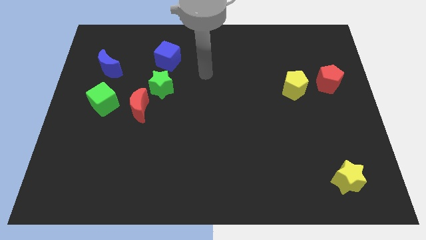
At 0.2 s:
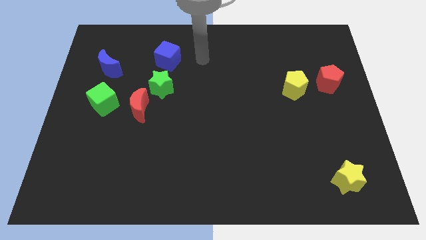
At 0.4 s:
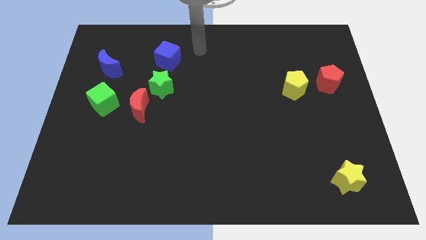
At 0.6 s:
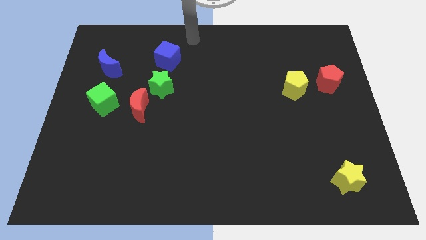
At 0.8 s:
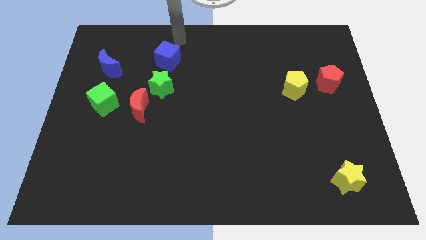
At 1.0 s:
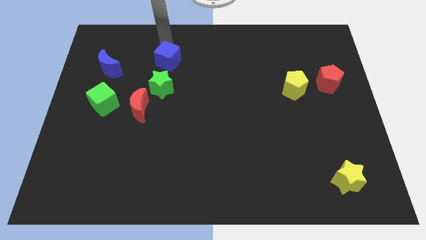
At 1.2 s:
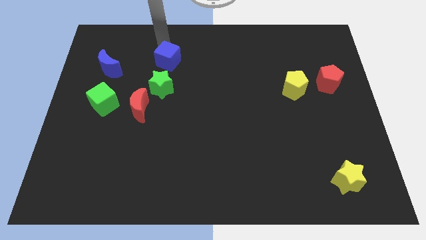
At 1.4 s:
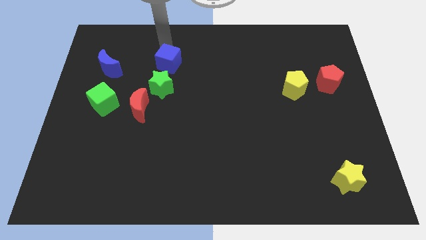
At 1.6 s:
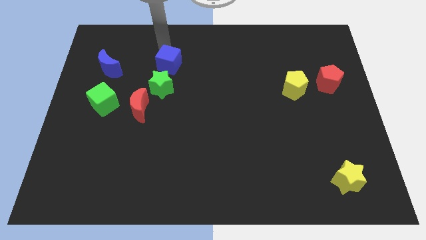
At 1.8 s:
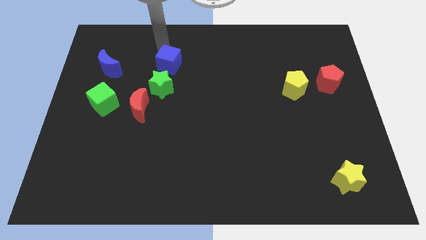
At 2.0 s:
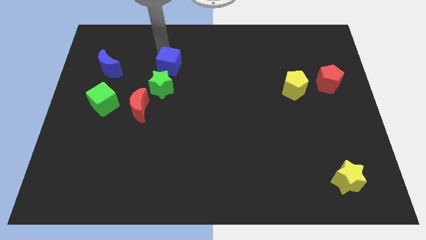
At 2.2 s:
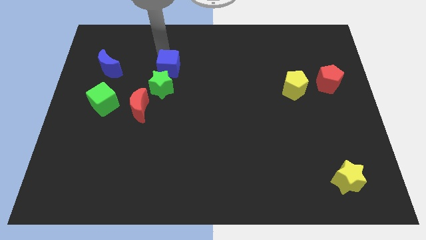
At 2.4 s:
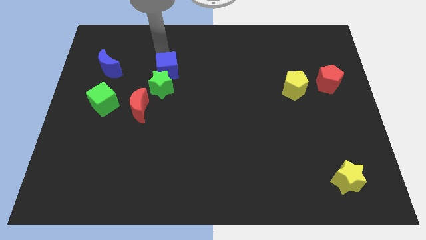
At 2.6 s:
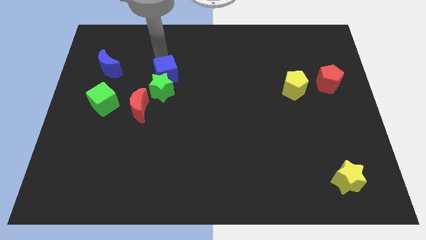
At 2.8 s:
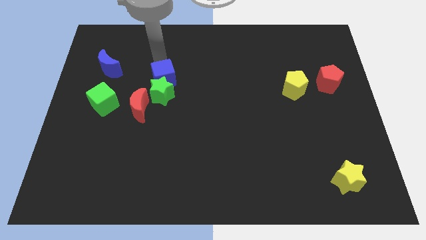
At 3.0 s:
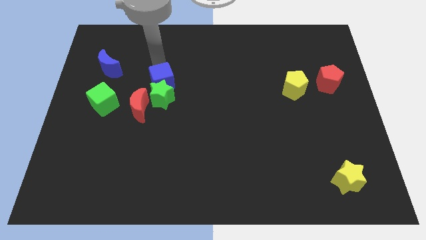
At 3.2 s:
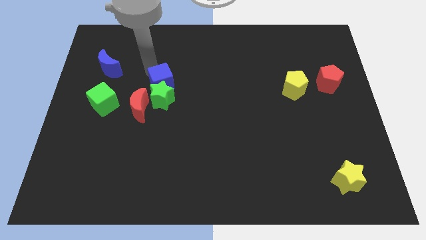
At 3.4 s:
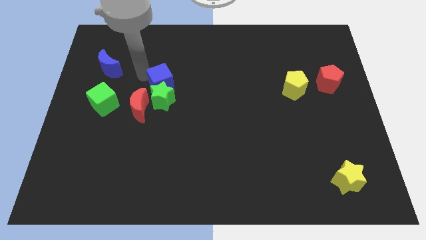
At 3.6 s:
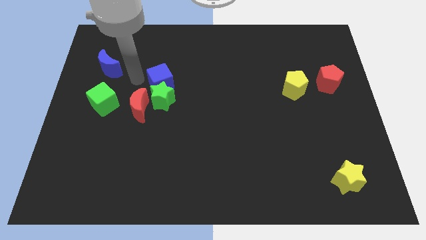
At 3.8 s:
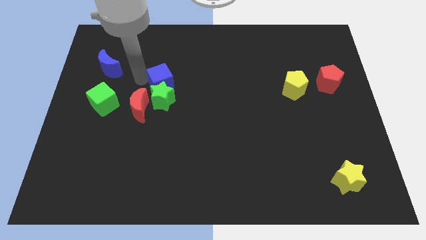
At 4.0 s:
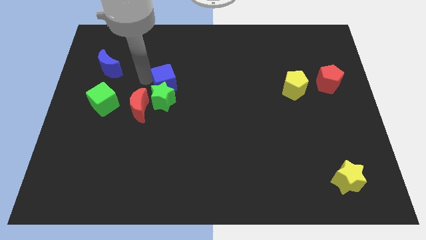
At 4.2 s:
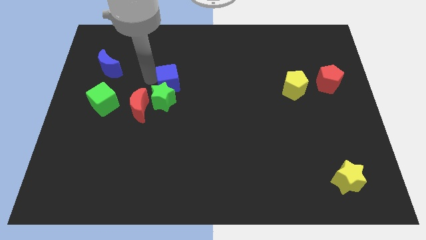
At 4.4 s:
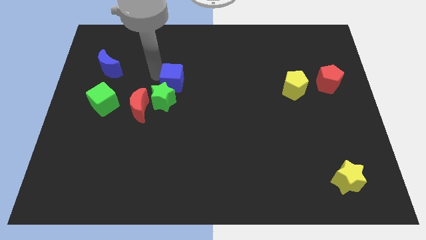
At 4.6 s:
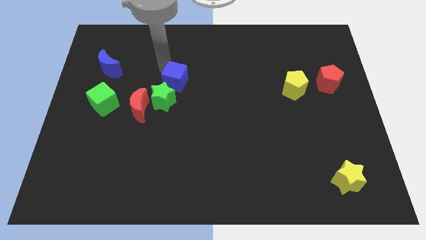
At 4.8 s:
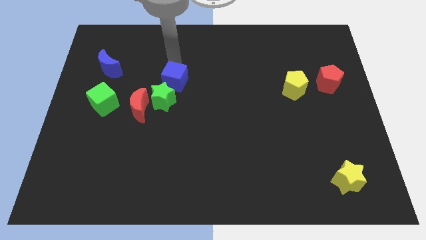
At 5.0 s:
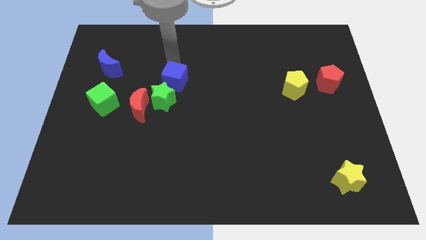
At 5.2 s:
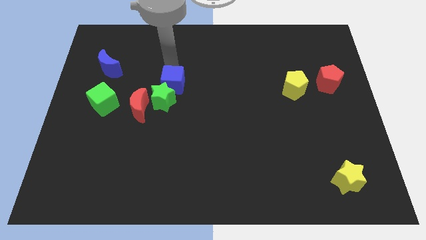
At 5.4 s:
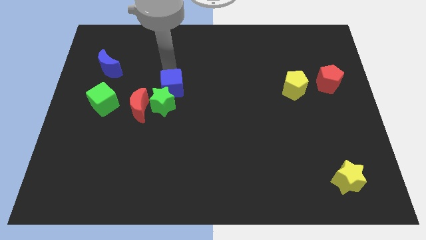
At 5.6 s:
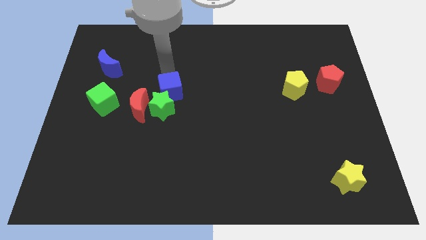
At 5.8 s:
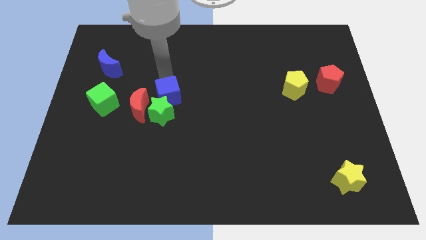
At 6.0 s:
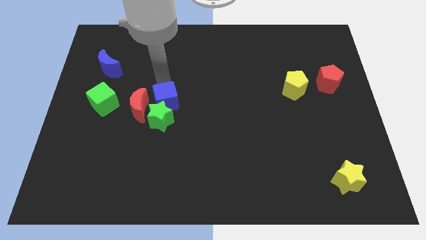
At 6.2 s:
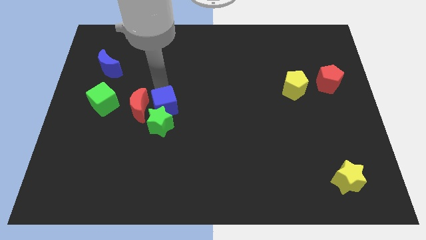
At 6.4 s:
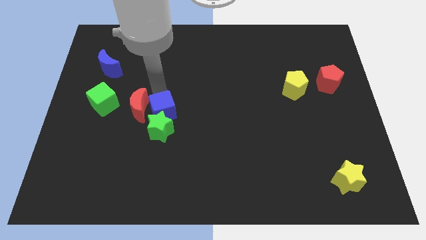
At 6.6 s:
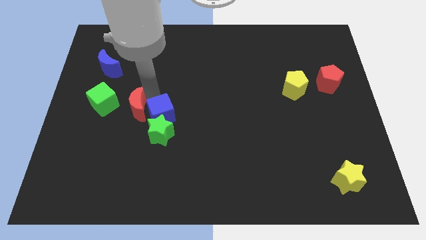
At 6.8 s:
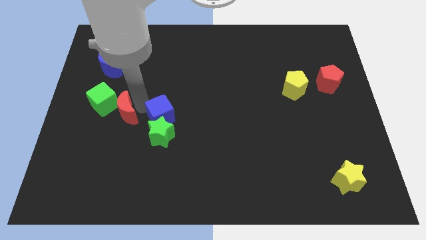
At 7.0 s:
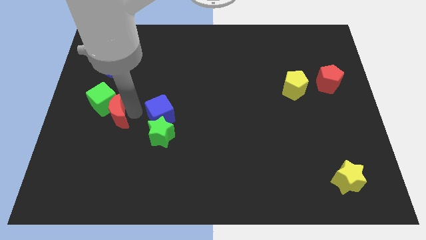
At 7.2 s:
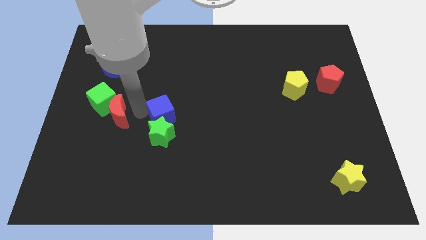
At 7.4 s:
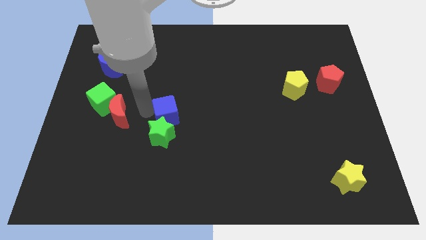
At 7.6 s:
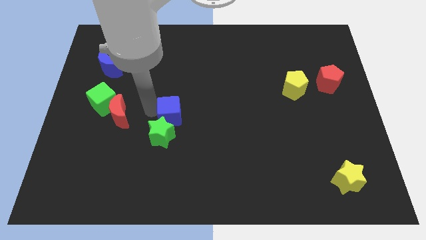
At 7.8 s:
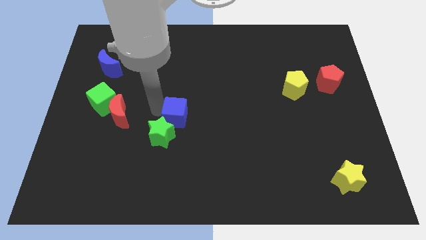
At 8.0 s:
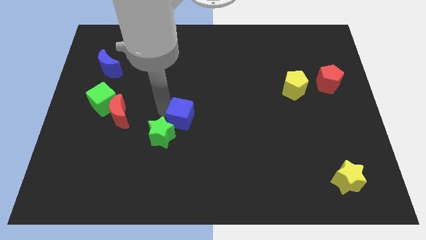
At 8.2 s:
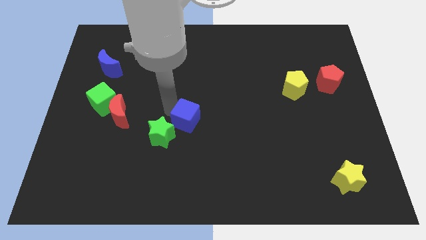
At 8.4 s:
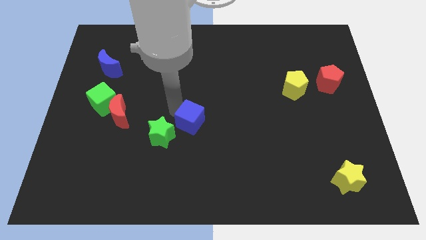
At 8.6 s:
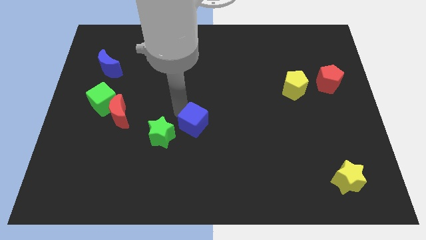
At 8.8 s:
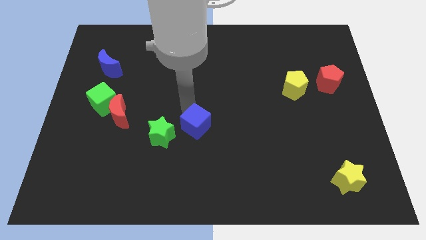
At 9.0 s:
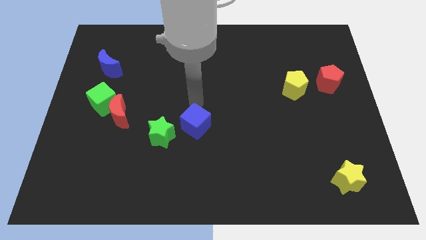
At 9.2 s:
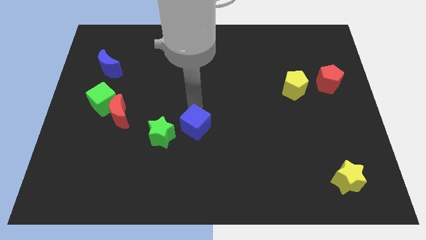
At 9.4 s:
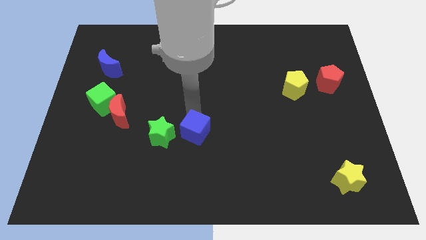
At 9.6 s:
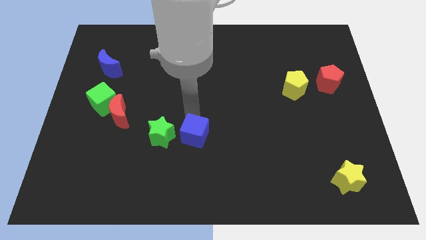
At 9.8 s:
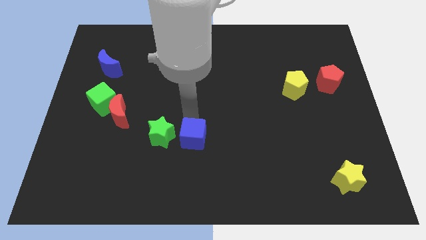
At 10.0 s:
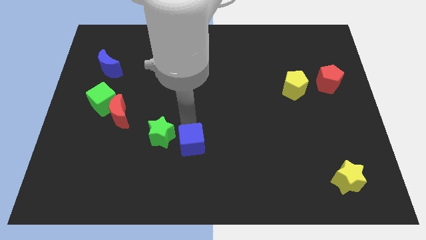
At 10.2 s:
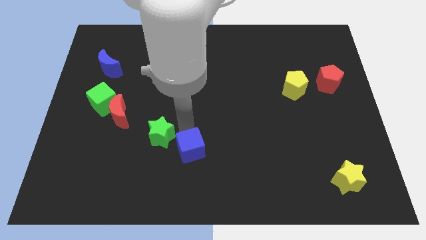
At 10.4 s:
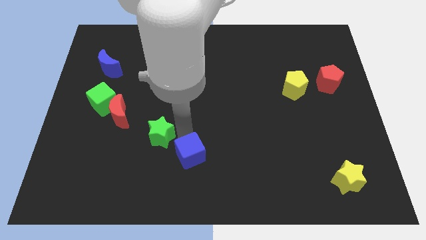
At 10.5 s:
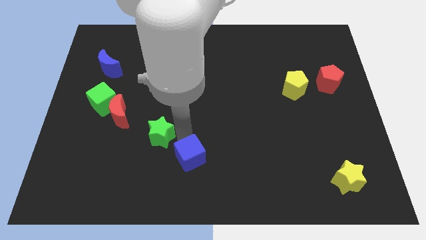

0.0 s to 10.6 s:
push the blue cube to the bottom side

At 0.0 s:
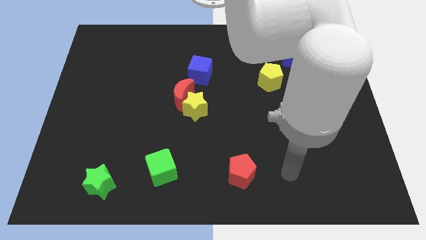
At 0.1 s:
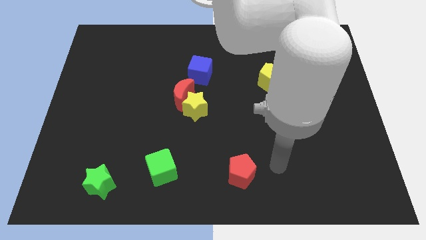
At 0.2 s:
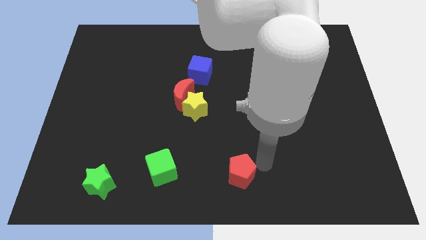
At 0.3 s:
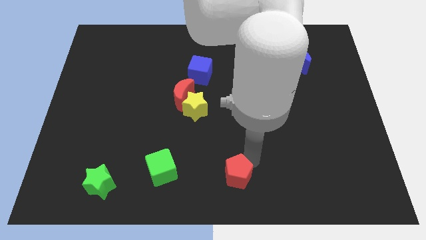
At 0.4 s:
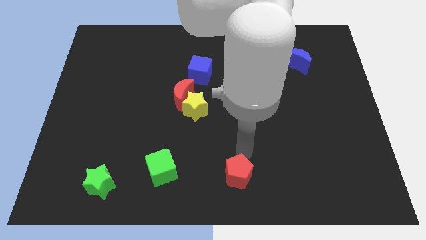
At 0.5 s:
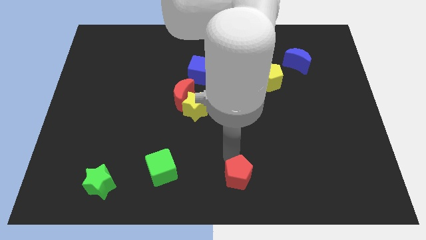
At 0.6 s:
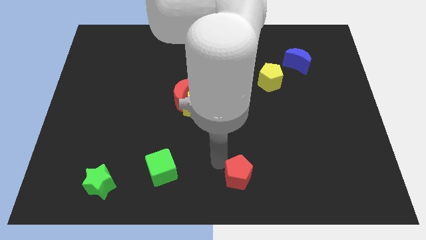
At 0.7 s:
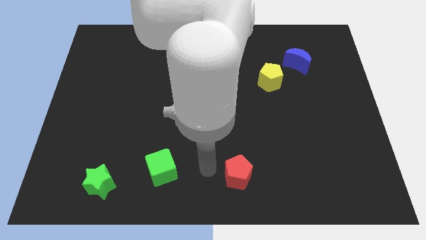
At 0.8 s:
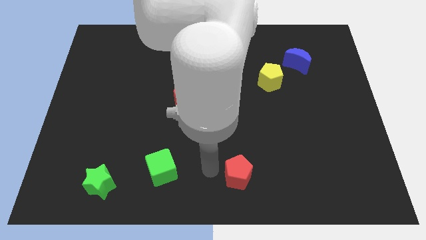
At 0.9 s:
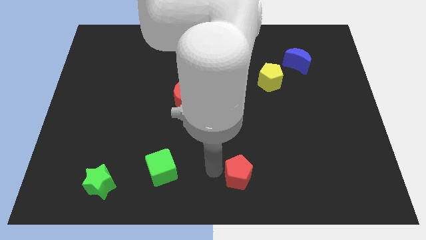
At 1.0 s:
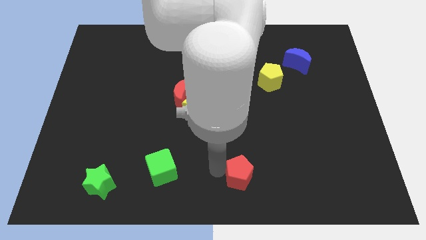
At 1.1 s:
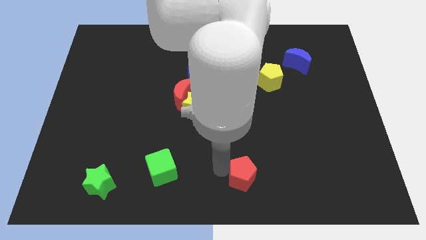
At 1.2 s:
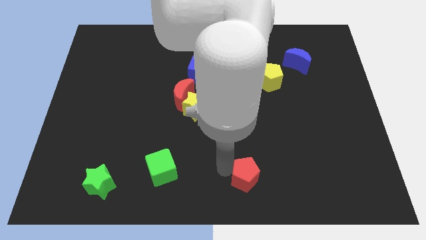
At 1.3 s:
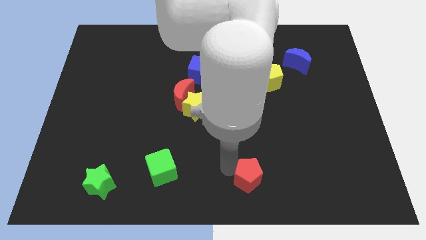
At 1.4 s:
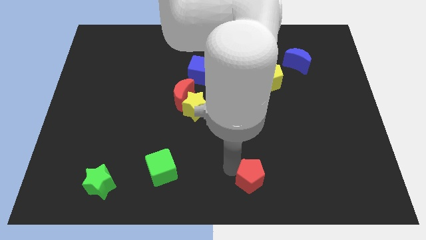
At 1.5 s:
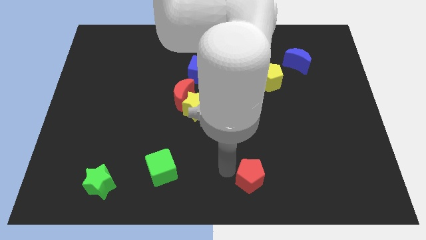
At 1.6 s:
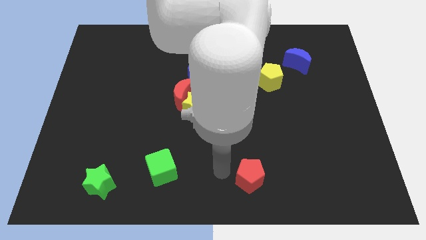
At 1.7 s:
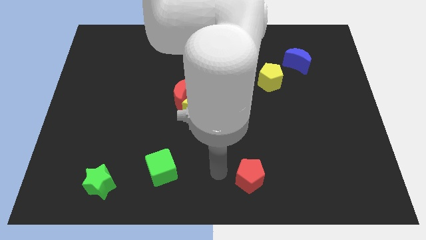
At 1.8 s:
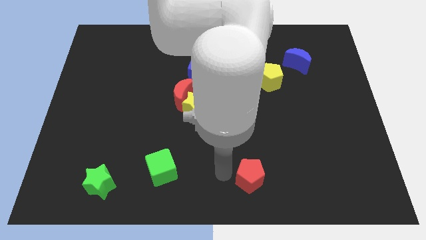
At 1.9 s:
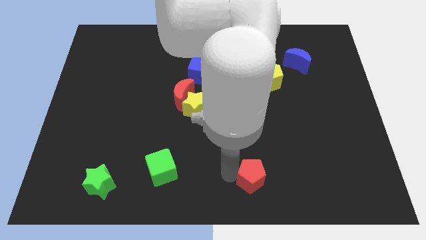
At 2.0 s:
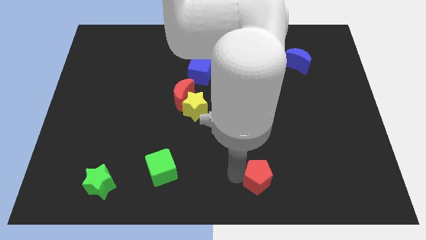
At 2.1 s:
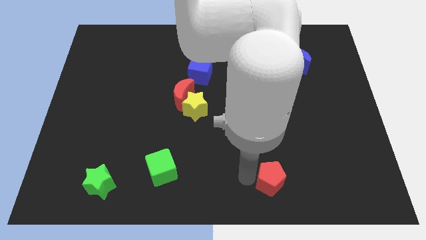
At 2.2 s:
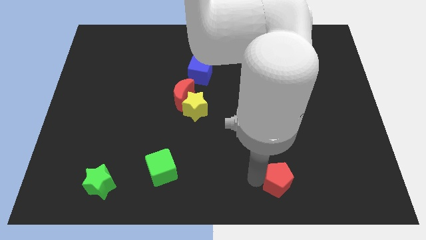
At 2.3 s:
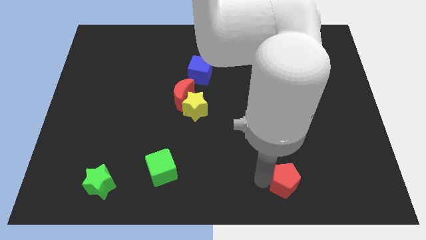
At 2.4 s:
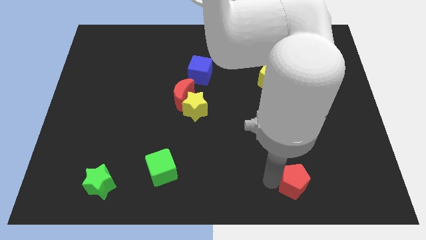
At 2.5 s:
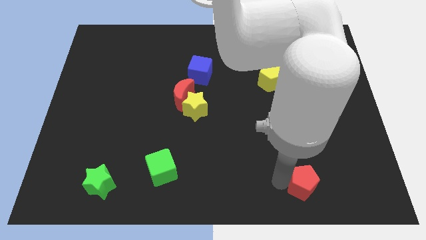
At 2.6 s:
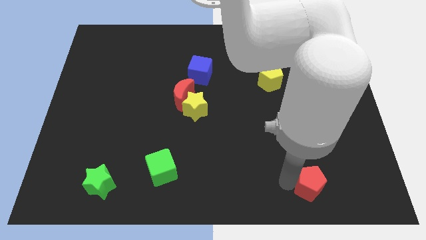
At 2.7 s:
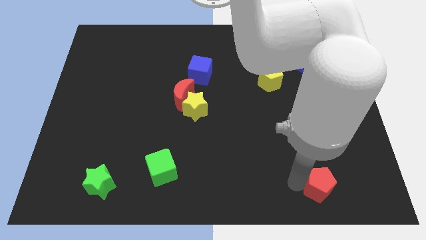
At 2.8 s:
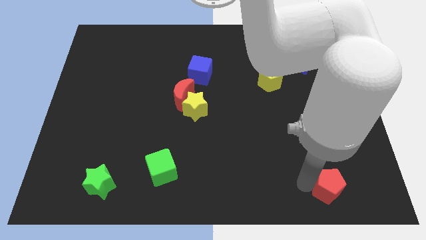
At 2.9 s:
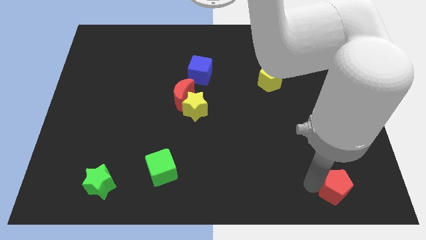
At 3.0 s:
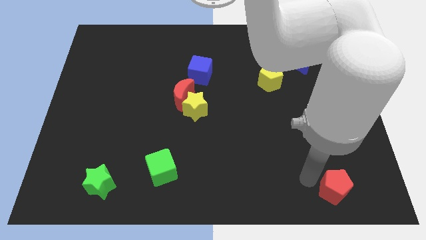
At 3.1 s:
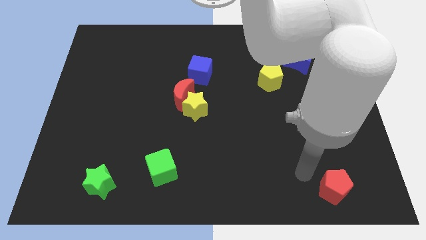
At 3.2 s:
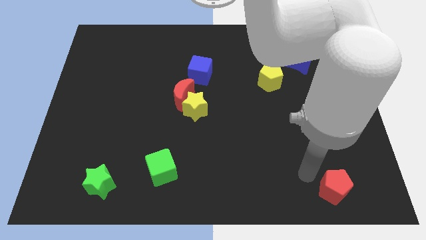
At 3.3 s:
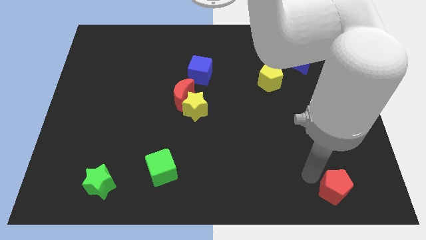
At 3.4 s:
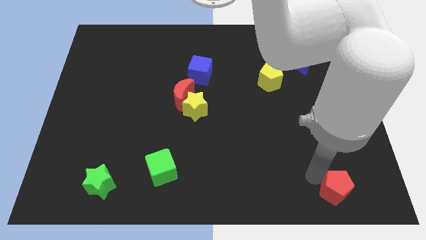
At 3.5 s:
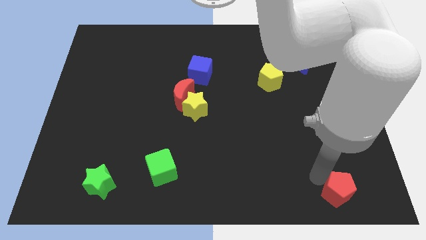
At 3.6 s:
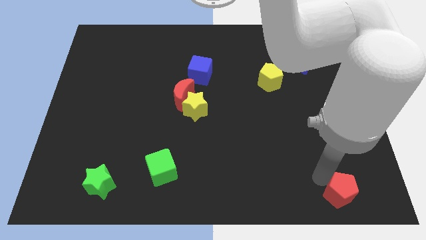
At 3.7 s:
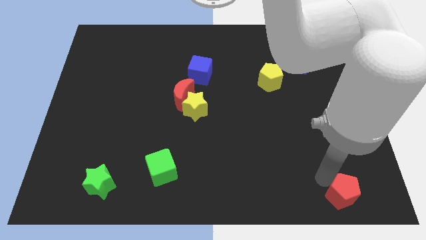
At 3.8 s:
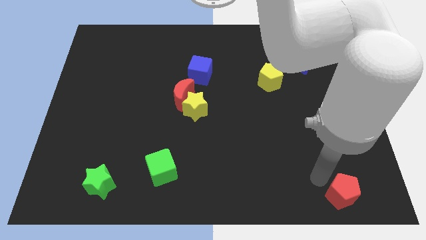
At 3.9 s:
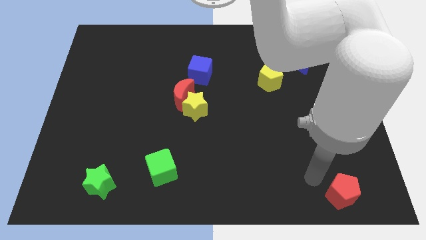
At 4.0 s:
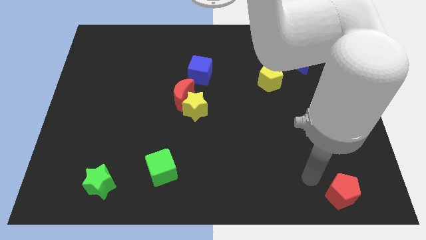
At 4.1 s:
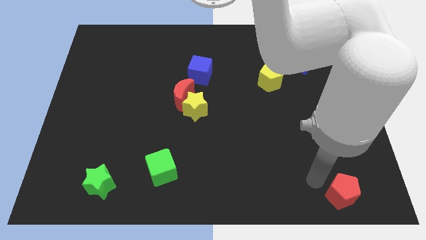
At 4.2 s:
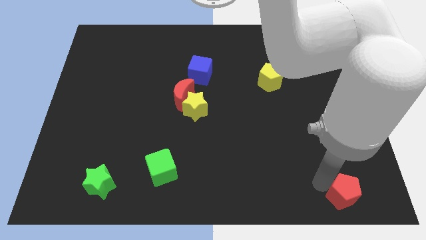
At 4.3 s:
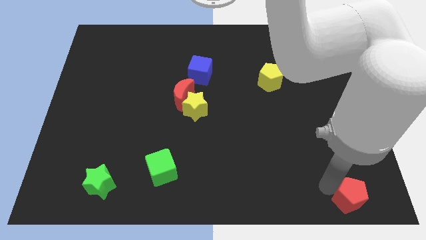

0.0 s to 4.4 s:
move the red pentagon to the bottom right
